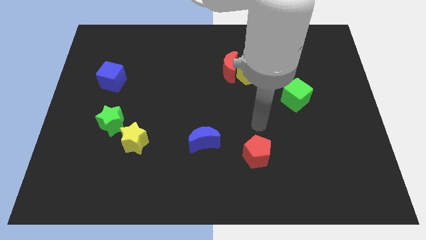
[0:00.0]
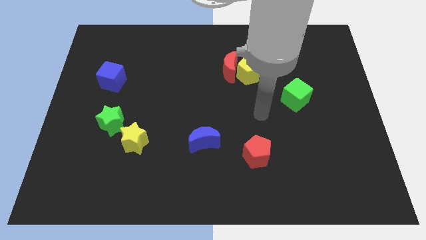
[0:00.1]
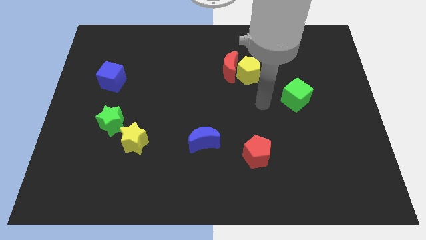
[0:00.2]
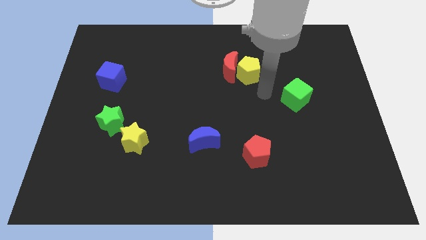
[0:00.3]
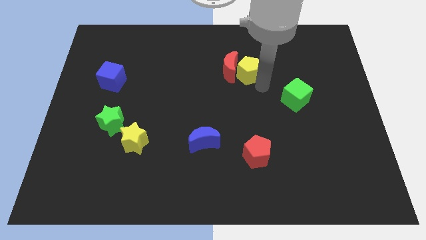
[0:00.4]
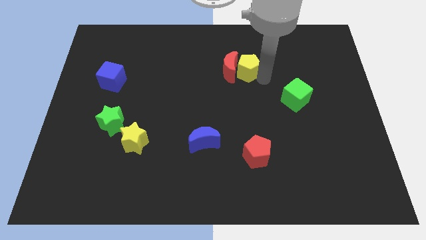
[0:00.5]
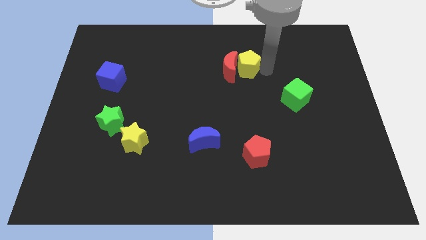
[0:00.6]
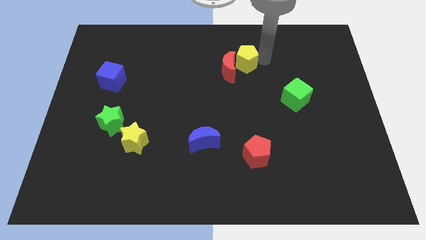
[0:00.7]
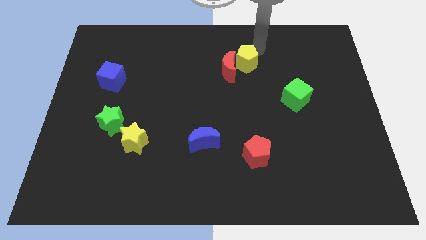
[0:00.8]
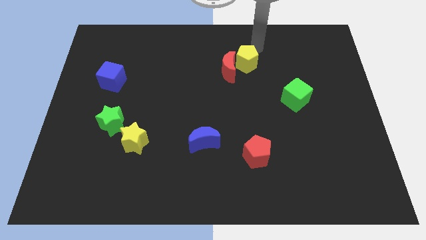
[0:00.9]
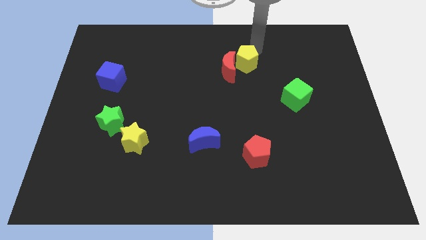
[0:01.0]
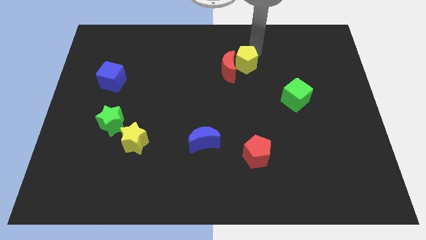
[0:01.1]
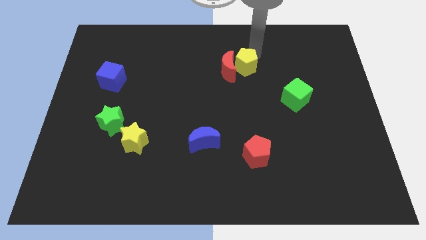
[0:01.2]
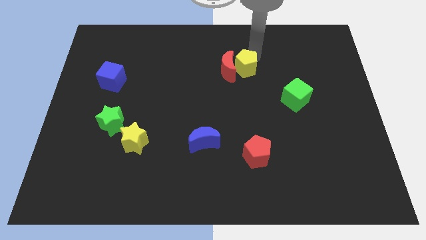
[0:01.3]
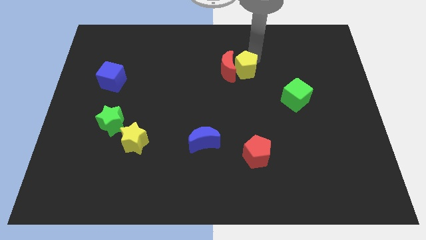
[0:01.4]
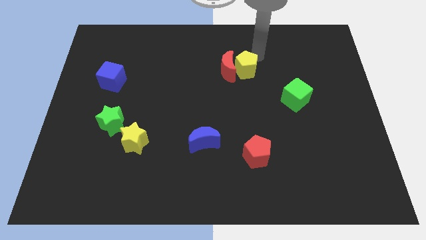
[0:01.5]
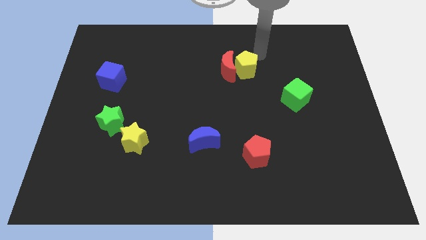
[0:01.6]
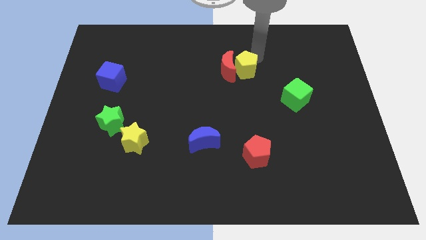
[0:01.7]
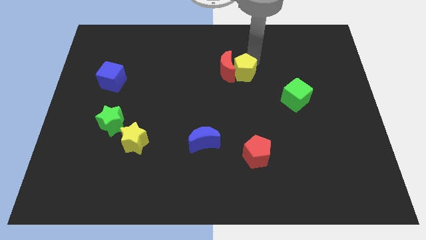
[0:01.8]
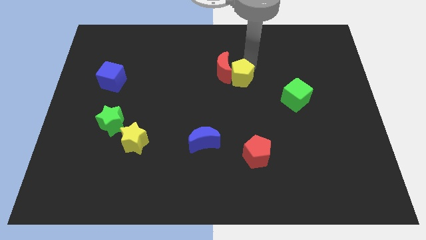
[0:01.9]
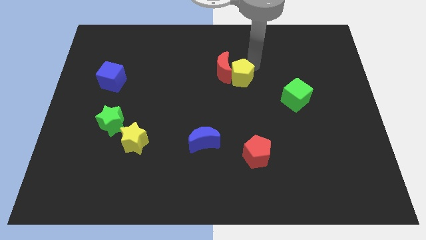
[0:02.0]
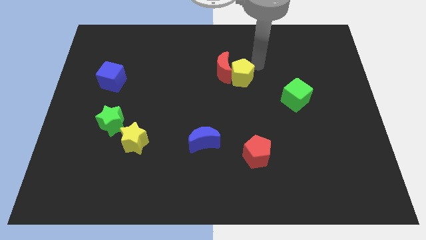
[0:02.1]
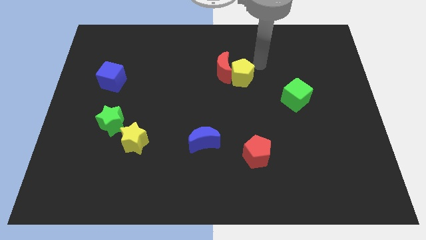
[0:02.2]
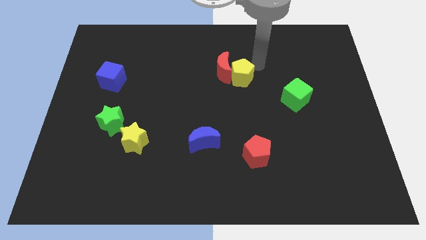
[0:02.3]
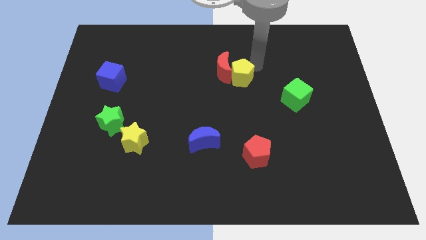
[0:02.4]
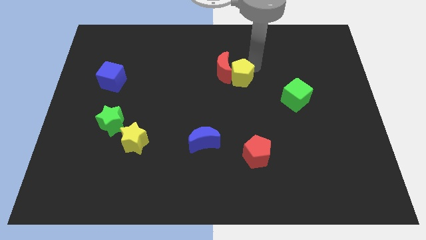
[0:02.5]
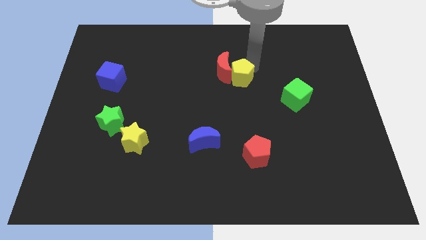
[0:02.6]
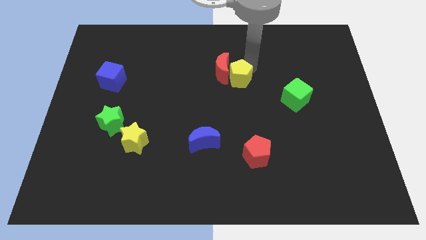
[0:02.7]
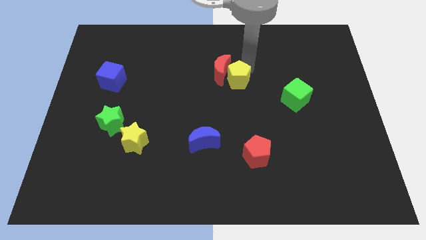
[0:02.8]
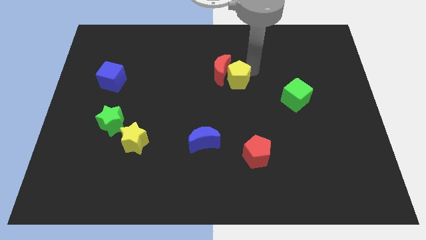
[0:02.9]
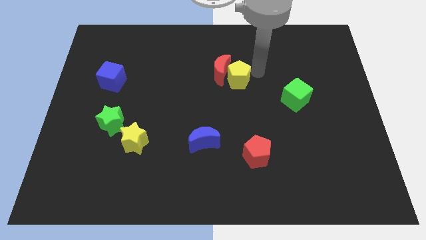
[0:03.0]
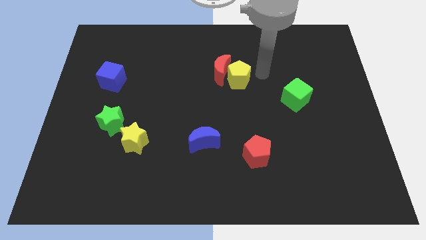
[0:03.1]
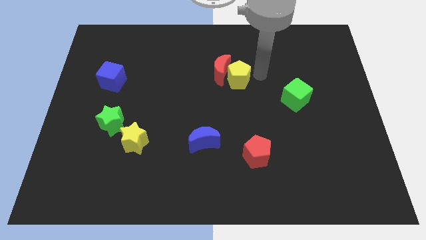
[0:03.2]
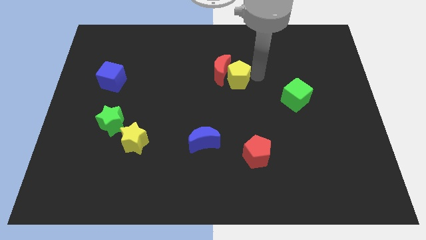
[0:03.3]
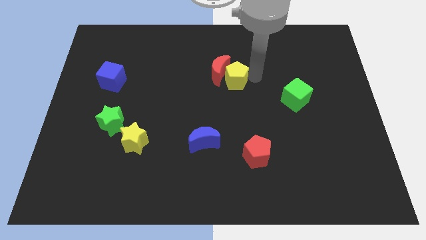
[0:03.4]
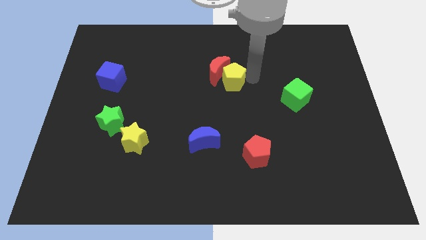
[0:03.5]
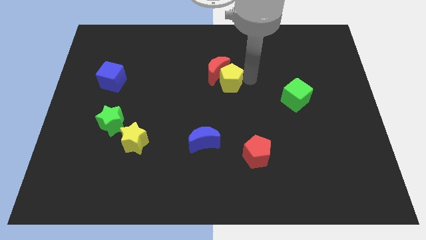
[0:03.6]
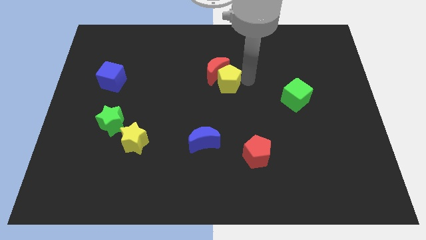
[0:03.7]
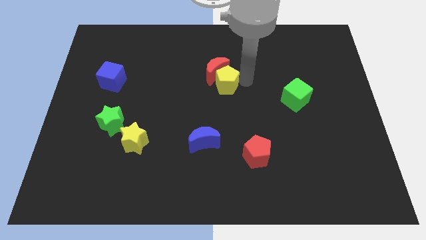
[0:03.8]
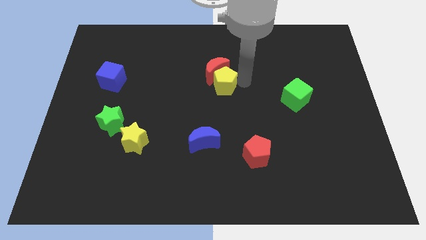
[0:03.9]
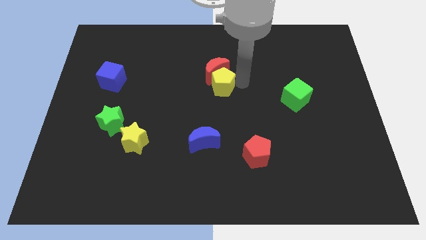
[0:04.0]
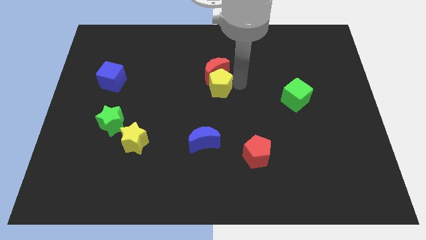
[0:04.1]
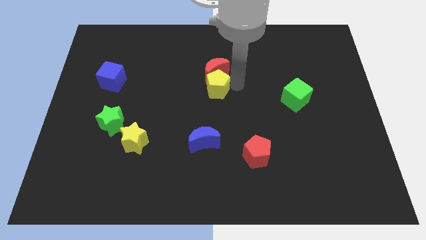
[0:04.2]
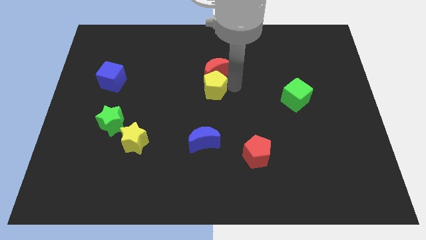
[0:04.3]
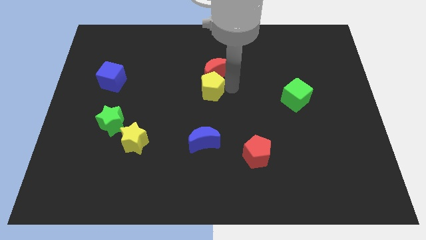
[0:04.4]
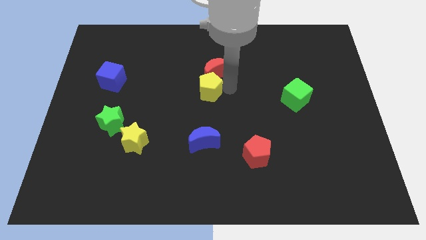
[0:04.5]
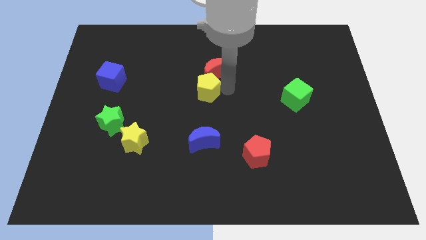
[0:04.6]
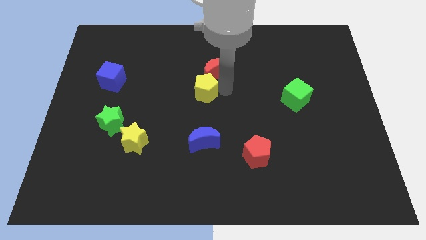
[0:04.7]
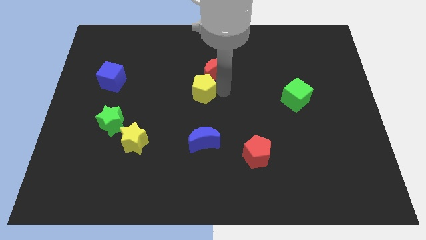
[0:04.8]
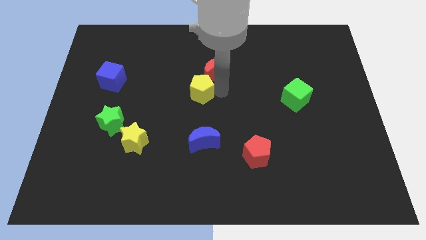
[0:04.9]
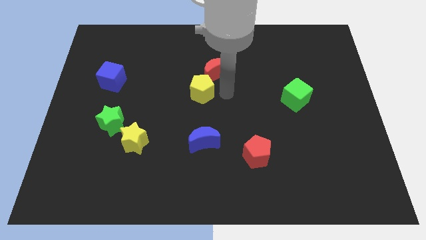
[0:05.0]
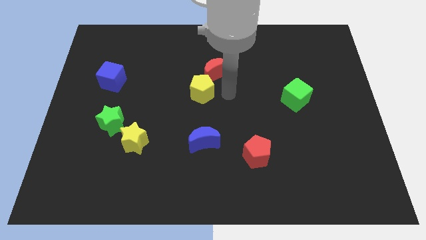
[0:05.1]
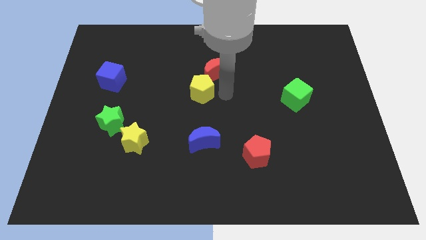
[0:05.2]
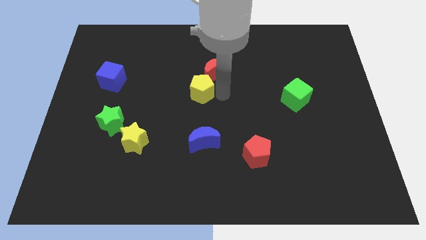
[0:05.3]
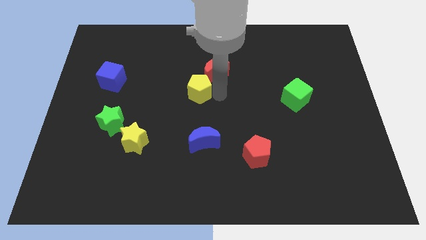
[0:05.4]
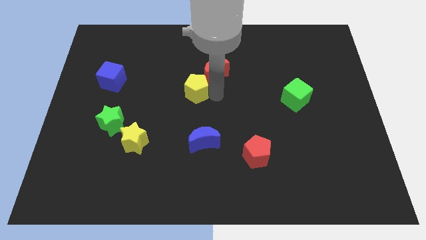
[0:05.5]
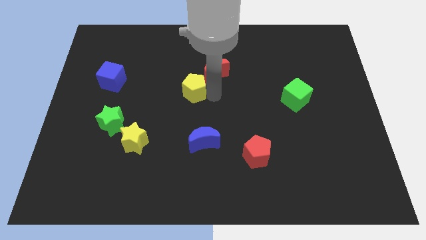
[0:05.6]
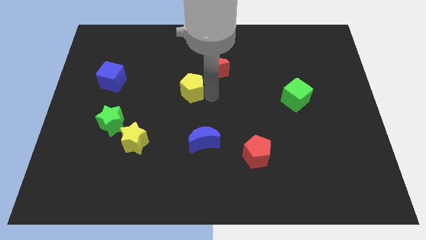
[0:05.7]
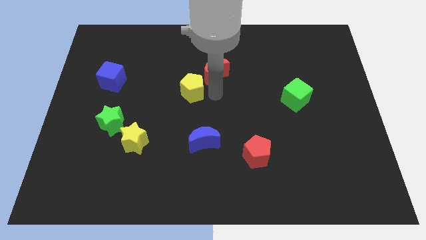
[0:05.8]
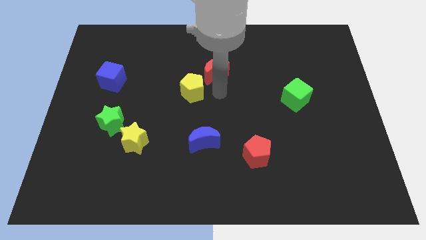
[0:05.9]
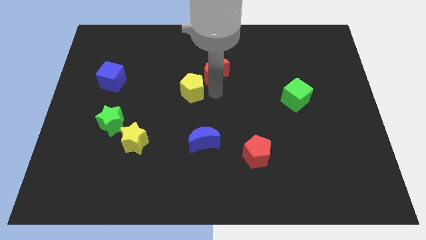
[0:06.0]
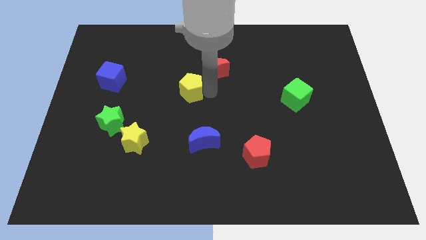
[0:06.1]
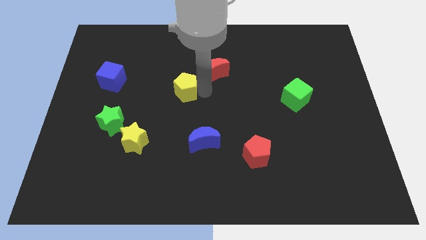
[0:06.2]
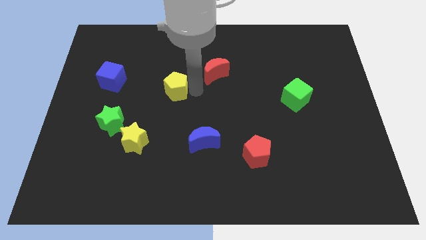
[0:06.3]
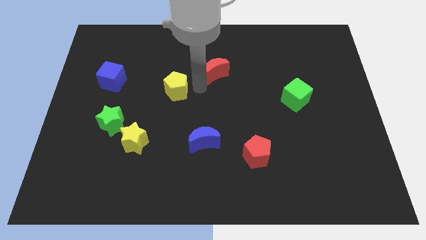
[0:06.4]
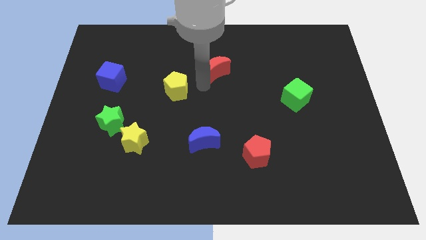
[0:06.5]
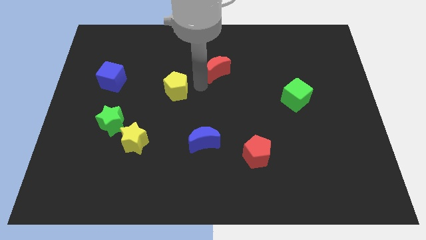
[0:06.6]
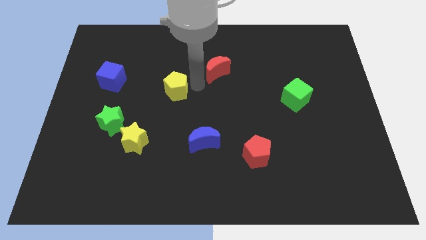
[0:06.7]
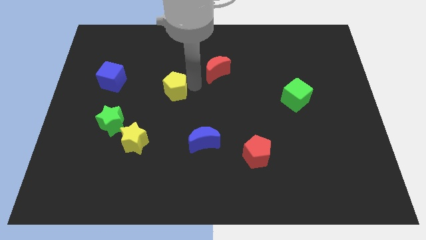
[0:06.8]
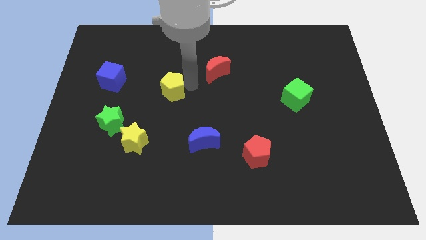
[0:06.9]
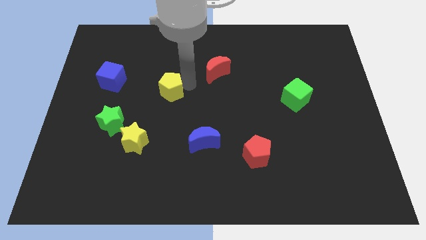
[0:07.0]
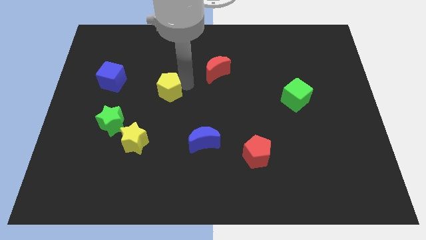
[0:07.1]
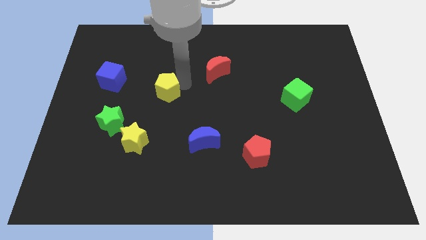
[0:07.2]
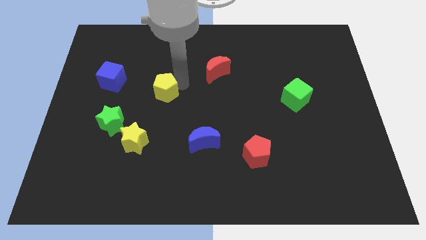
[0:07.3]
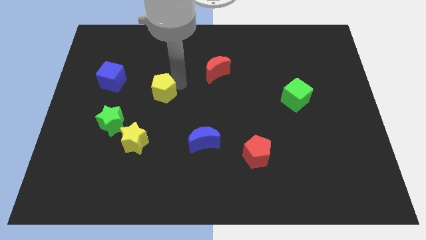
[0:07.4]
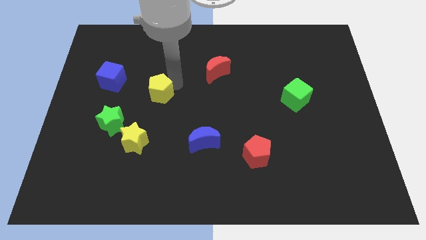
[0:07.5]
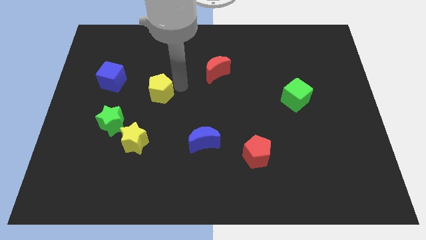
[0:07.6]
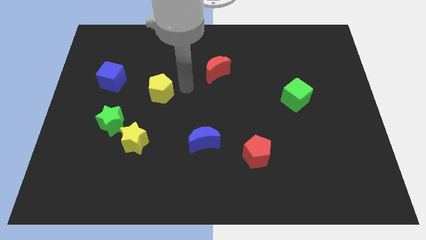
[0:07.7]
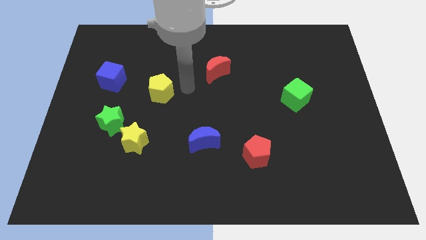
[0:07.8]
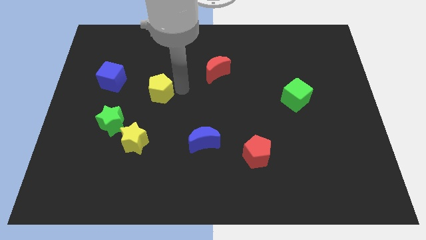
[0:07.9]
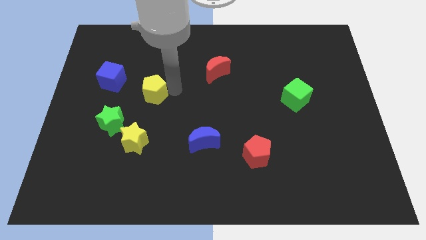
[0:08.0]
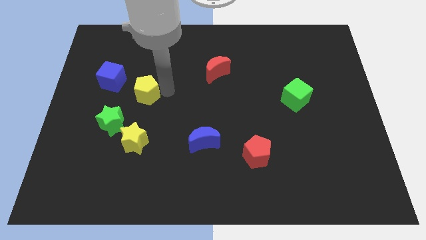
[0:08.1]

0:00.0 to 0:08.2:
move the yellow pentagon to the bottom right of the blue cube
